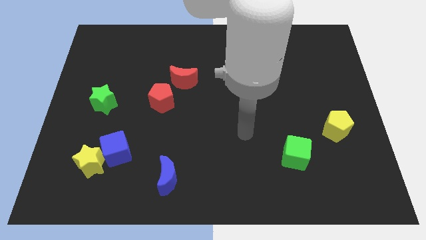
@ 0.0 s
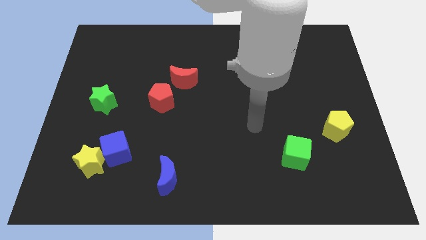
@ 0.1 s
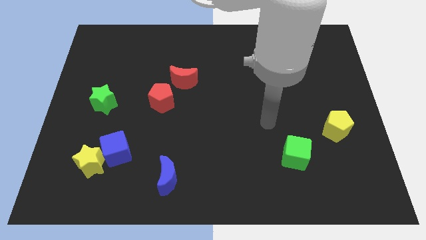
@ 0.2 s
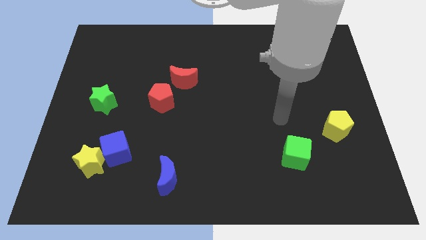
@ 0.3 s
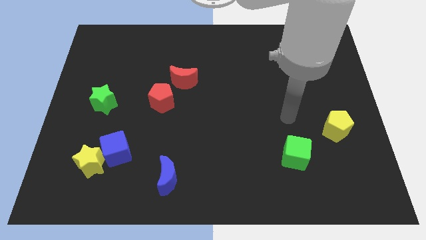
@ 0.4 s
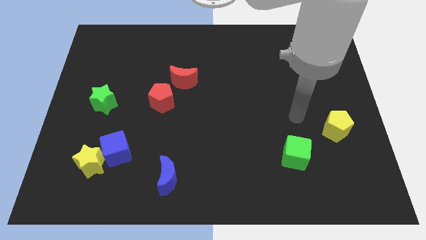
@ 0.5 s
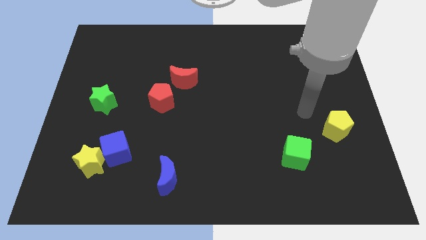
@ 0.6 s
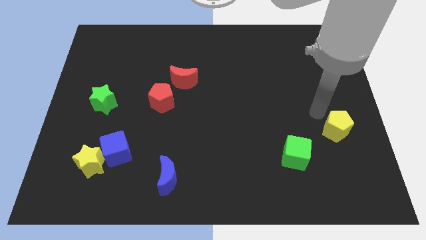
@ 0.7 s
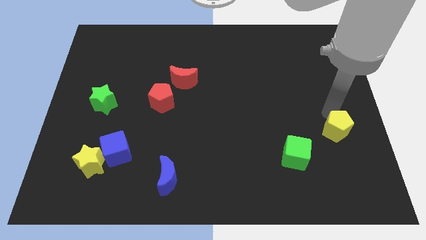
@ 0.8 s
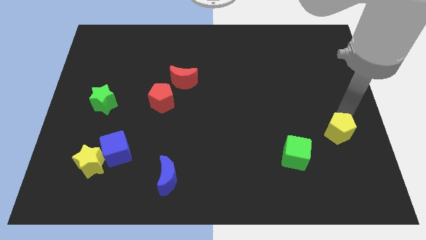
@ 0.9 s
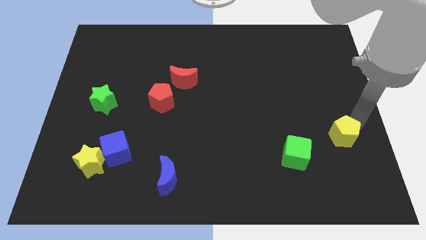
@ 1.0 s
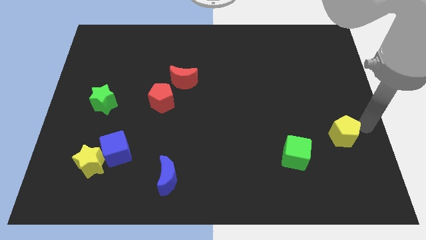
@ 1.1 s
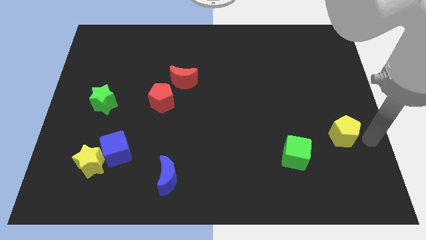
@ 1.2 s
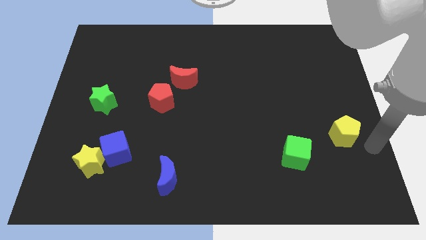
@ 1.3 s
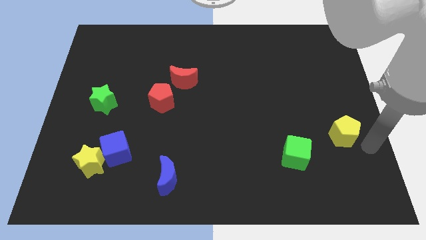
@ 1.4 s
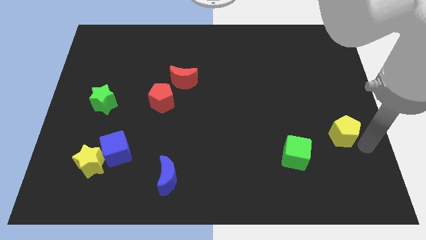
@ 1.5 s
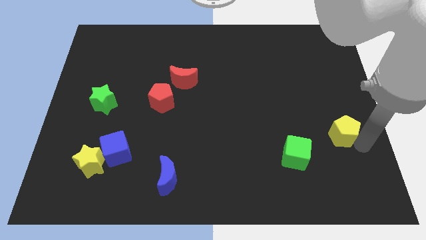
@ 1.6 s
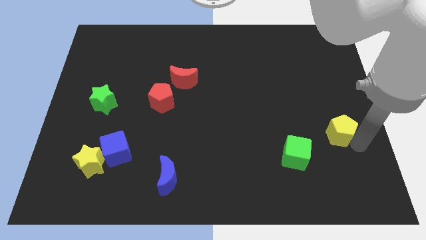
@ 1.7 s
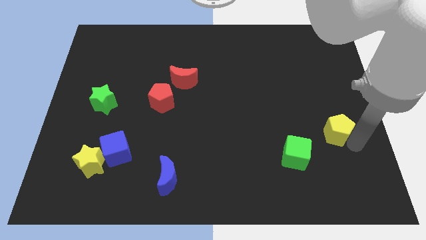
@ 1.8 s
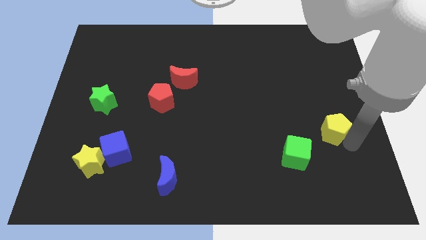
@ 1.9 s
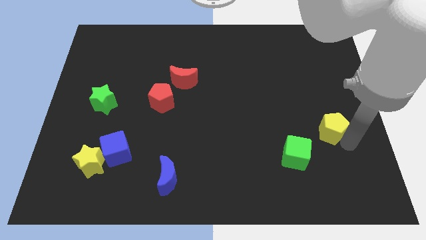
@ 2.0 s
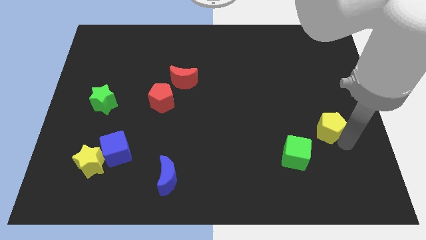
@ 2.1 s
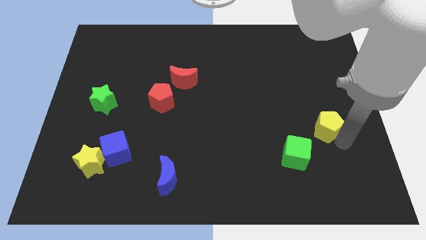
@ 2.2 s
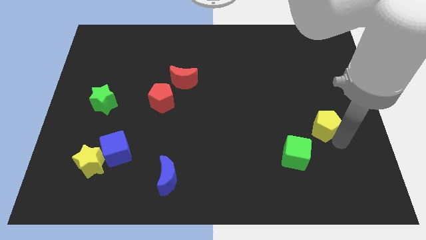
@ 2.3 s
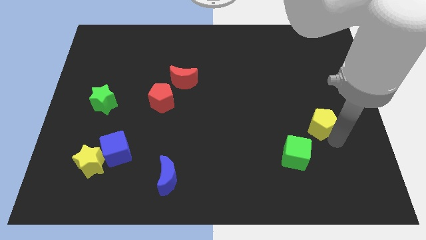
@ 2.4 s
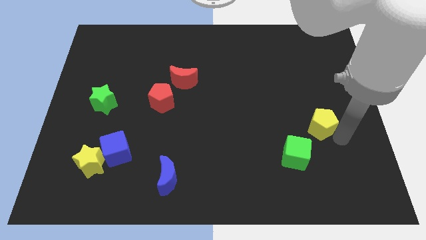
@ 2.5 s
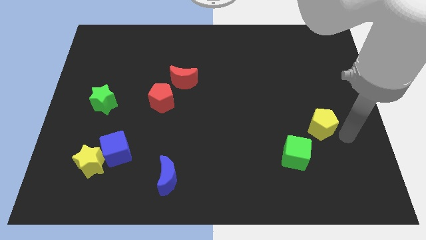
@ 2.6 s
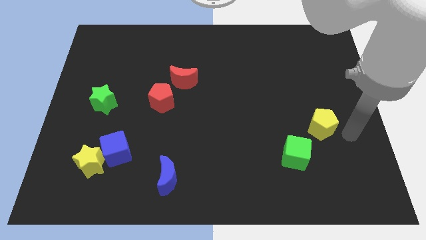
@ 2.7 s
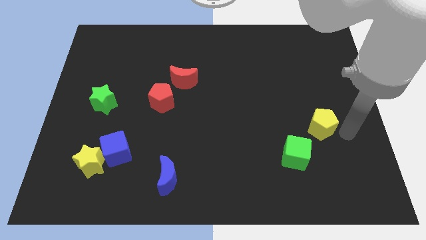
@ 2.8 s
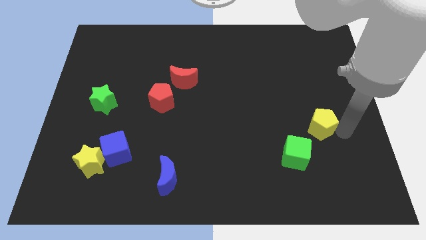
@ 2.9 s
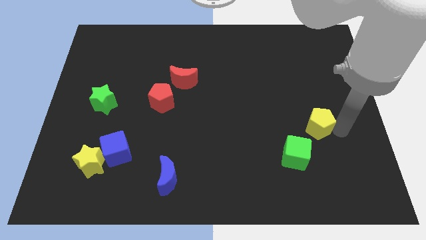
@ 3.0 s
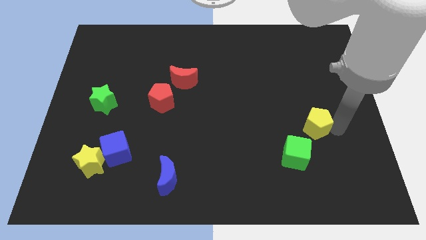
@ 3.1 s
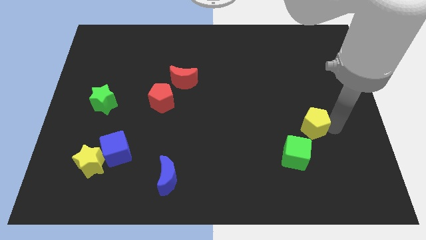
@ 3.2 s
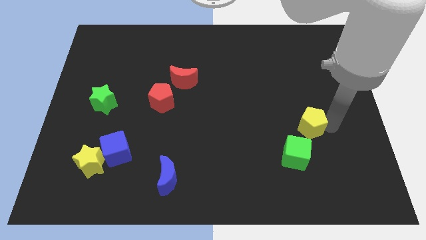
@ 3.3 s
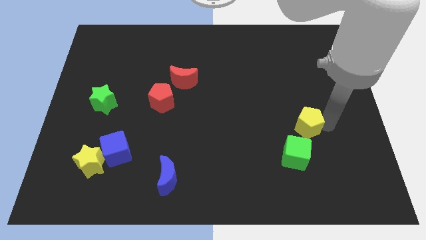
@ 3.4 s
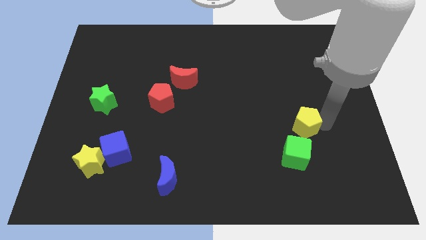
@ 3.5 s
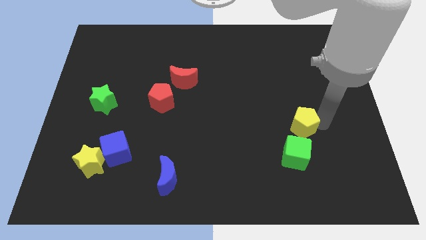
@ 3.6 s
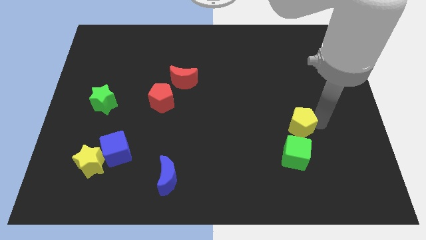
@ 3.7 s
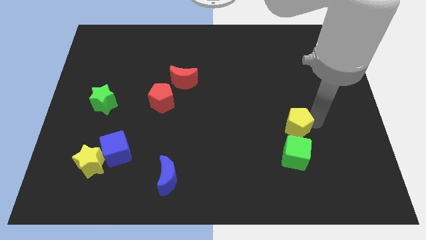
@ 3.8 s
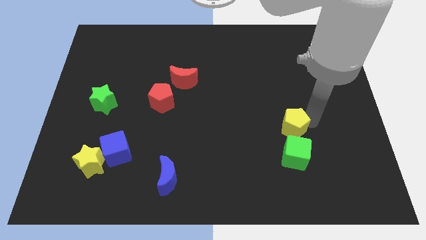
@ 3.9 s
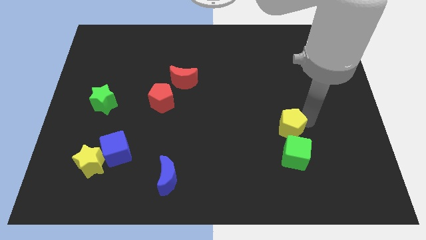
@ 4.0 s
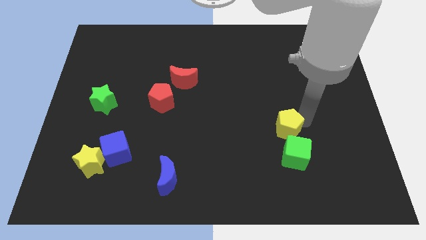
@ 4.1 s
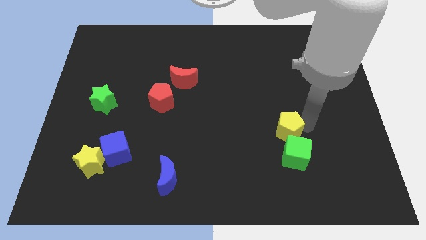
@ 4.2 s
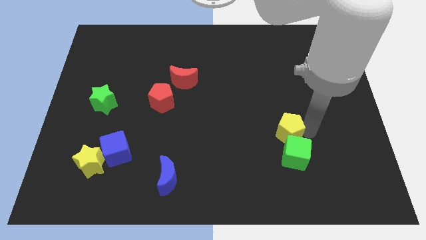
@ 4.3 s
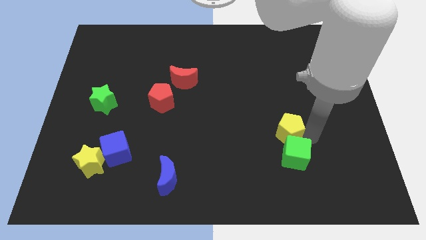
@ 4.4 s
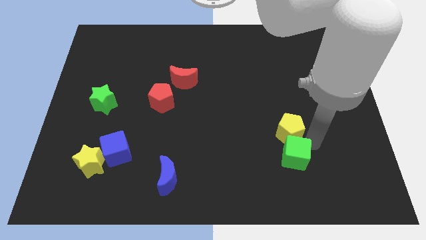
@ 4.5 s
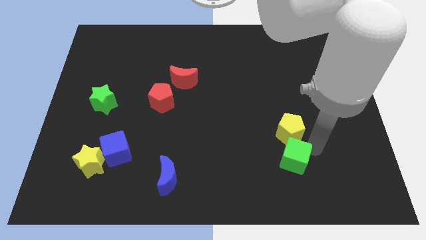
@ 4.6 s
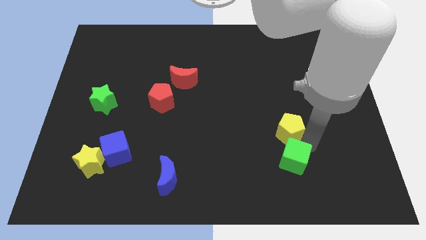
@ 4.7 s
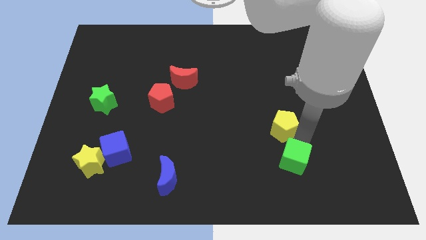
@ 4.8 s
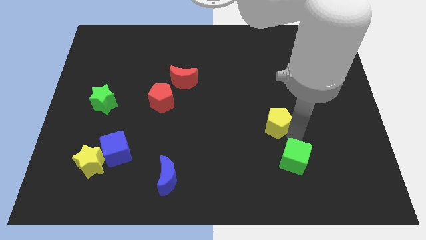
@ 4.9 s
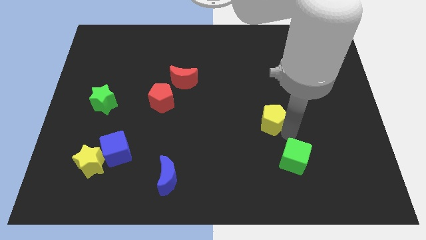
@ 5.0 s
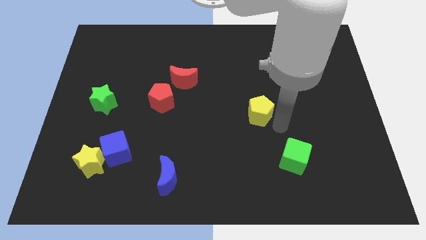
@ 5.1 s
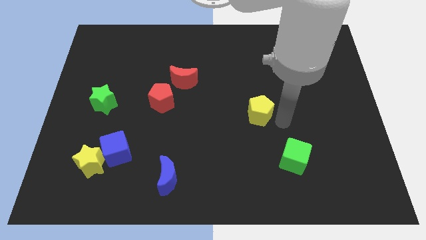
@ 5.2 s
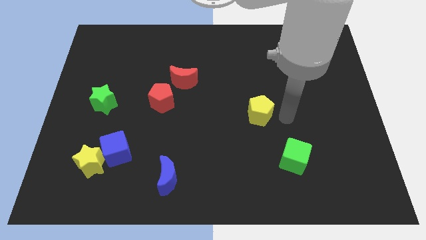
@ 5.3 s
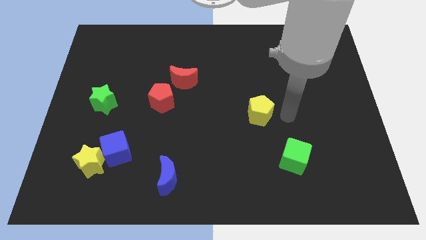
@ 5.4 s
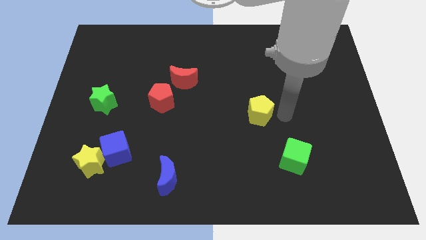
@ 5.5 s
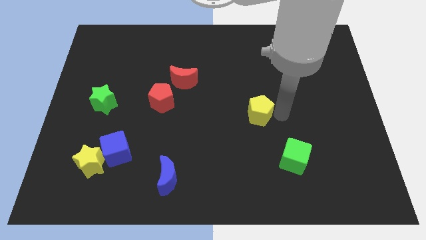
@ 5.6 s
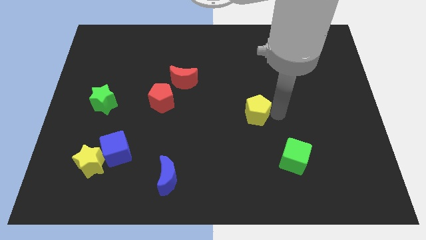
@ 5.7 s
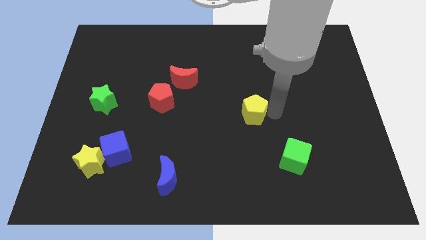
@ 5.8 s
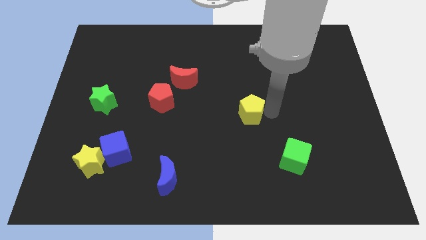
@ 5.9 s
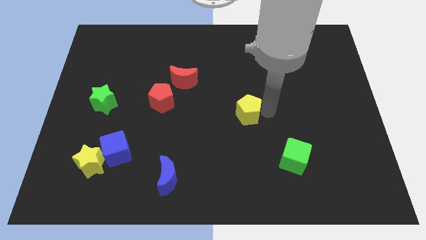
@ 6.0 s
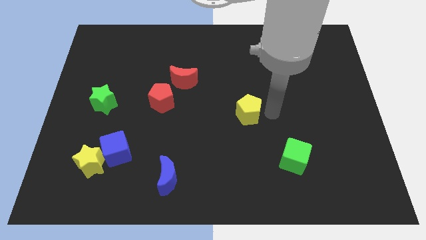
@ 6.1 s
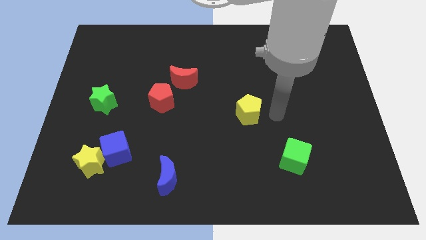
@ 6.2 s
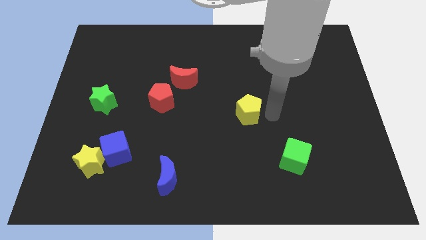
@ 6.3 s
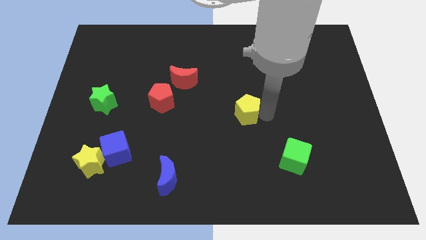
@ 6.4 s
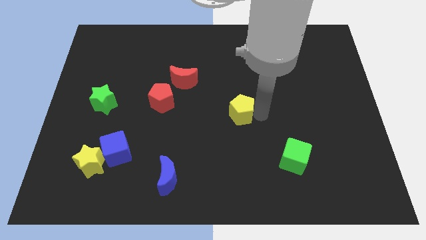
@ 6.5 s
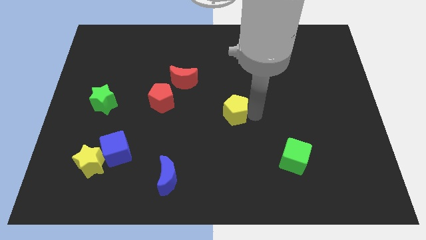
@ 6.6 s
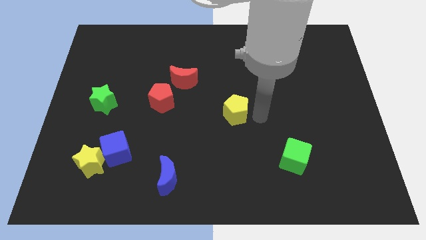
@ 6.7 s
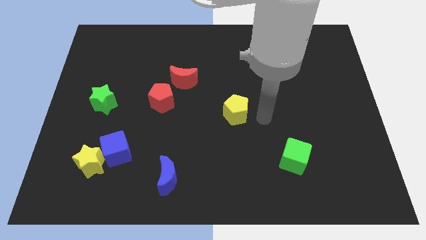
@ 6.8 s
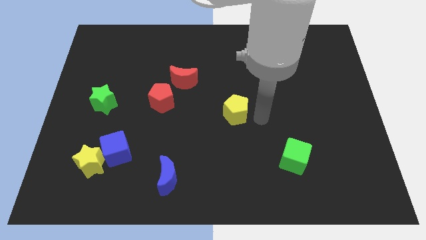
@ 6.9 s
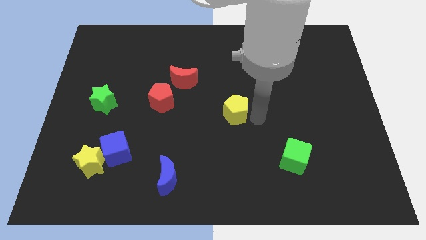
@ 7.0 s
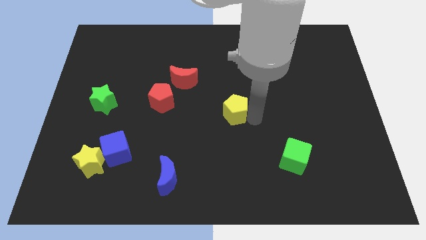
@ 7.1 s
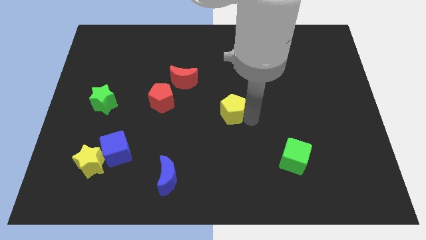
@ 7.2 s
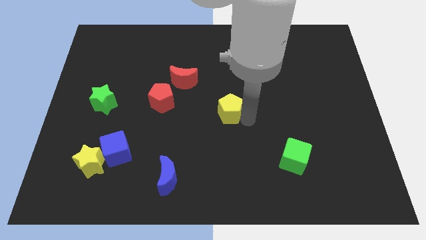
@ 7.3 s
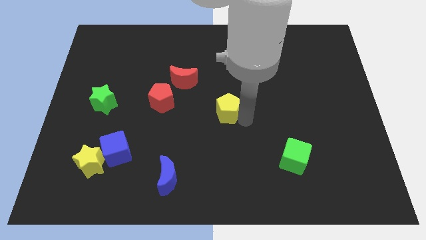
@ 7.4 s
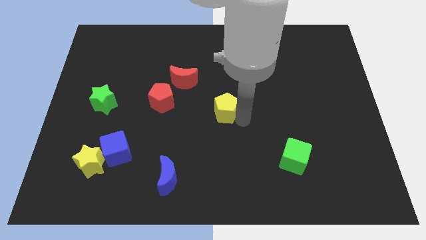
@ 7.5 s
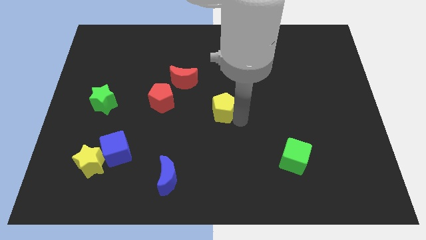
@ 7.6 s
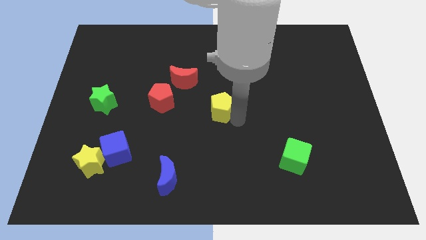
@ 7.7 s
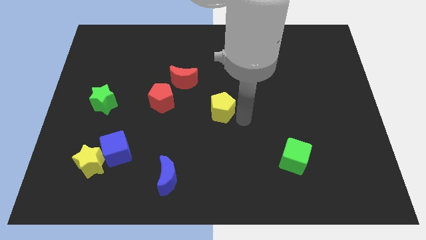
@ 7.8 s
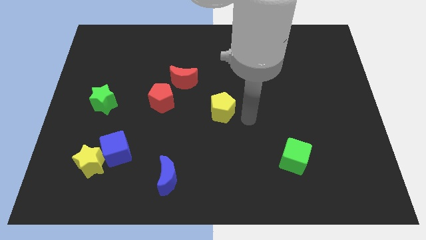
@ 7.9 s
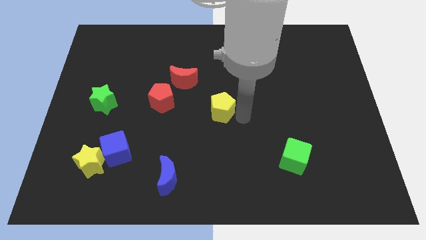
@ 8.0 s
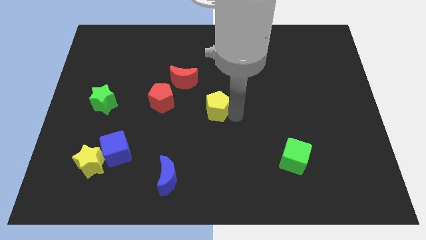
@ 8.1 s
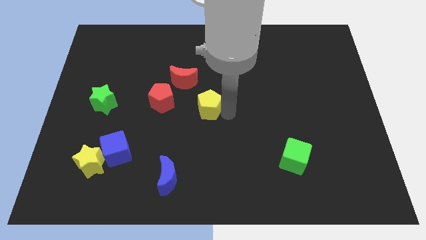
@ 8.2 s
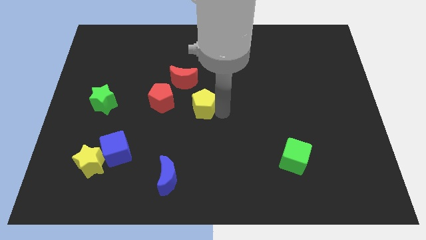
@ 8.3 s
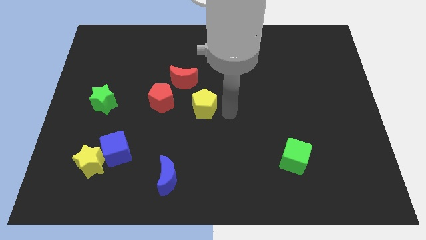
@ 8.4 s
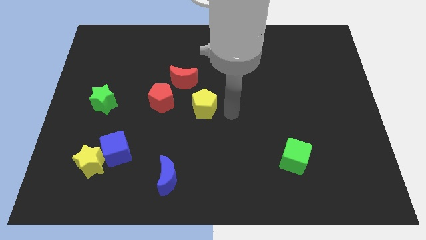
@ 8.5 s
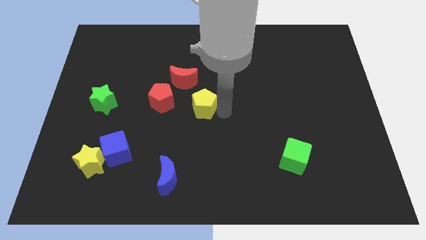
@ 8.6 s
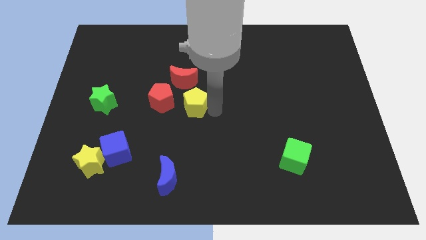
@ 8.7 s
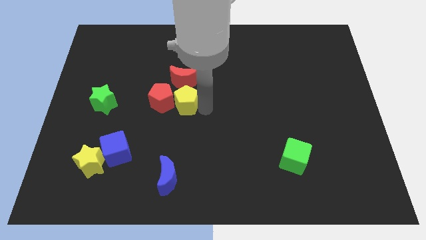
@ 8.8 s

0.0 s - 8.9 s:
put the yellow pentagon next to the red pentagon
